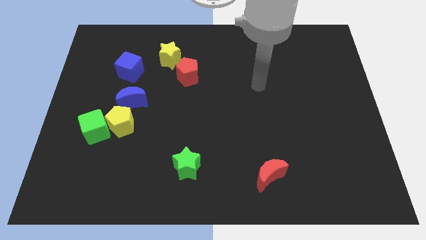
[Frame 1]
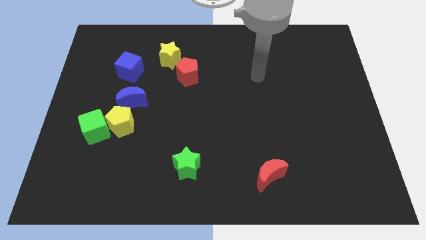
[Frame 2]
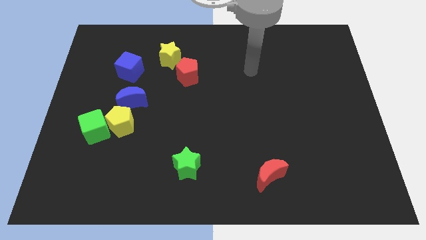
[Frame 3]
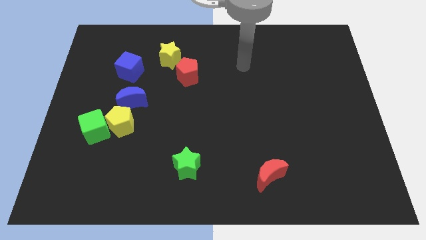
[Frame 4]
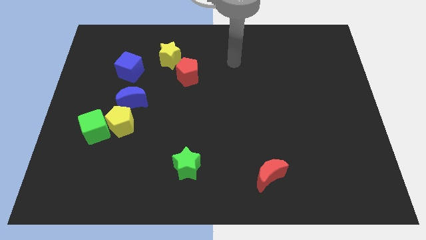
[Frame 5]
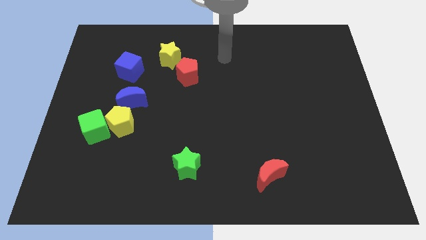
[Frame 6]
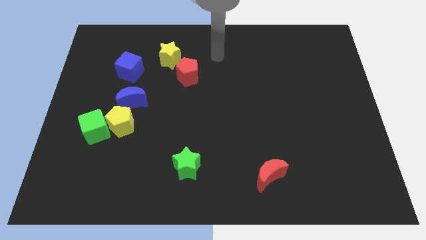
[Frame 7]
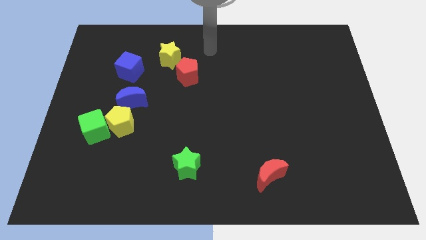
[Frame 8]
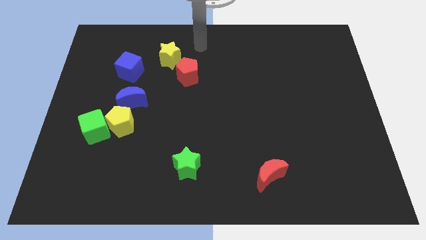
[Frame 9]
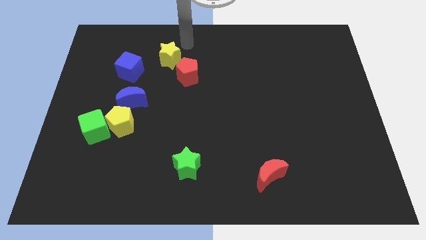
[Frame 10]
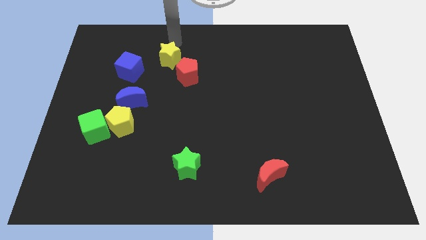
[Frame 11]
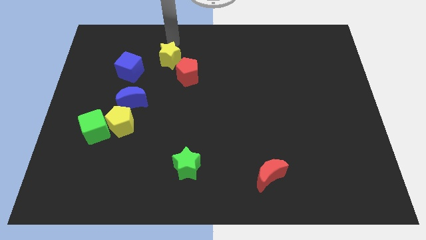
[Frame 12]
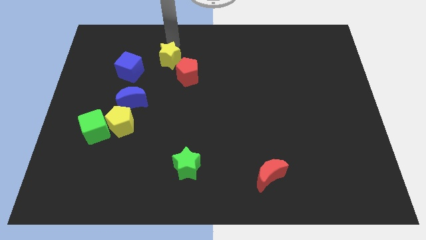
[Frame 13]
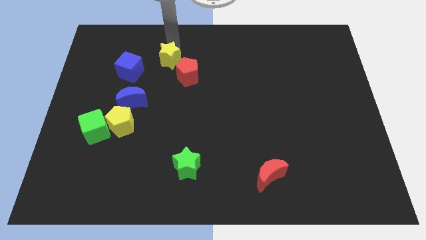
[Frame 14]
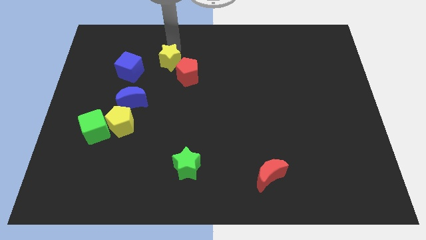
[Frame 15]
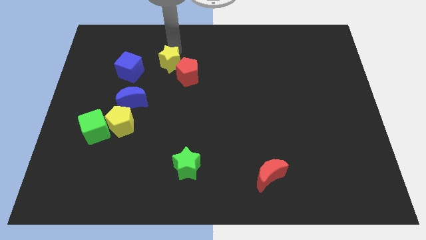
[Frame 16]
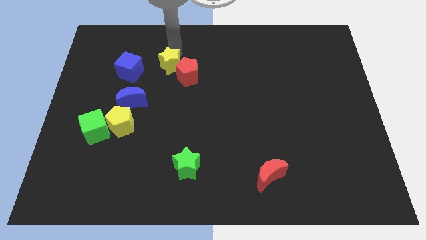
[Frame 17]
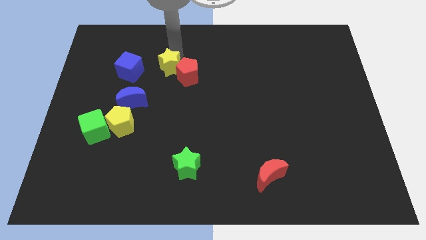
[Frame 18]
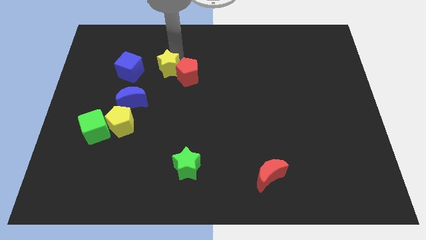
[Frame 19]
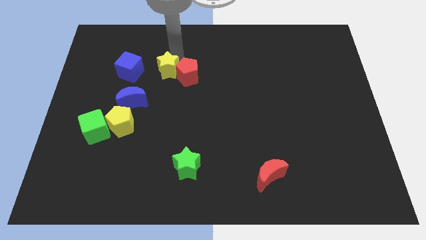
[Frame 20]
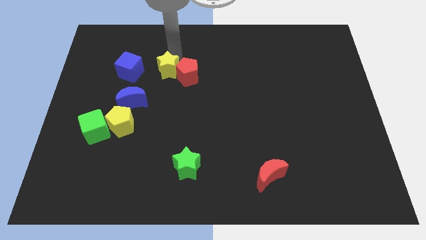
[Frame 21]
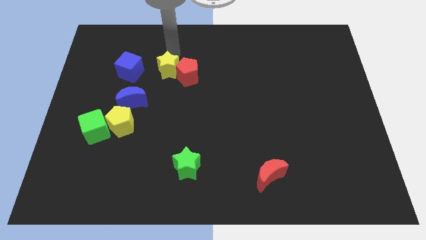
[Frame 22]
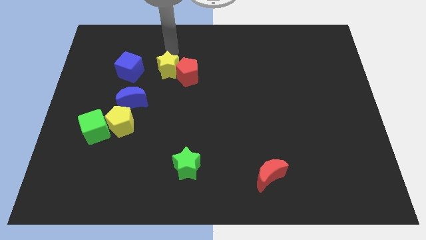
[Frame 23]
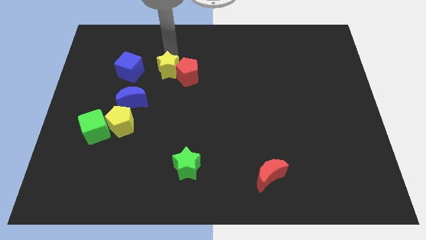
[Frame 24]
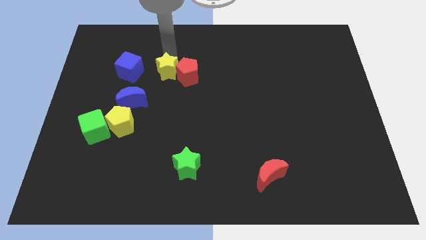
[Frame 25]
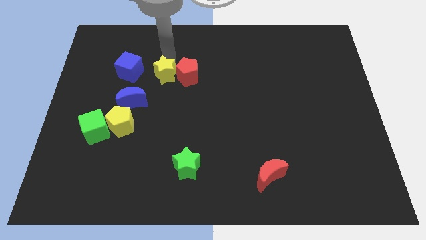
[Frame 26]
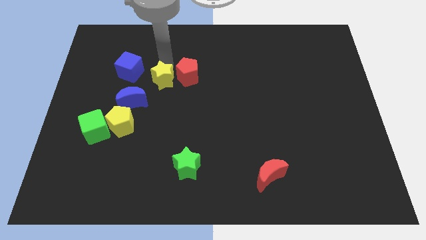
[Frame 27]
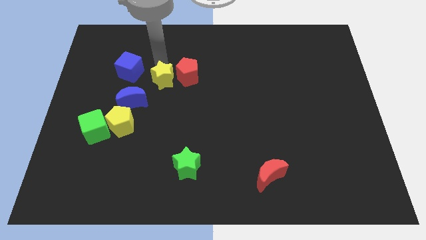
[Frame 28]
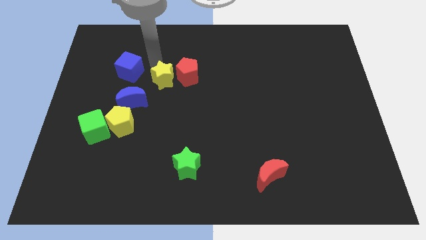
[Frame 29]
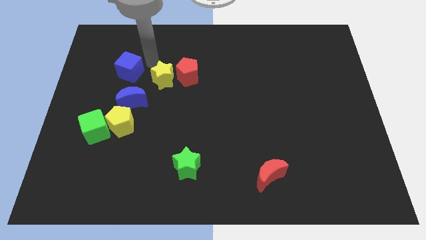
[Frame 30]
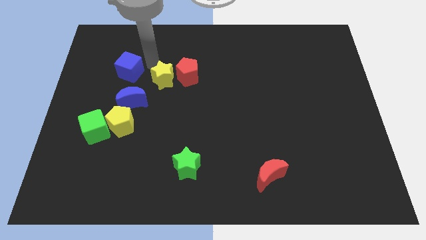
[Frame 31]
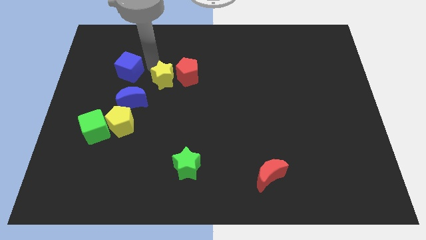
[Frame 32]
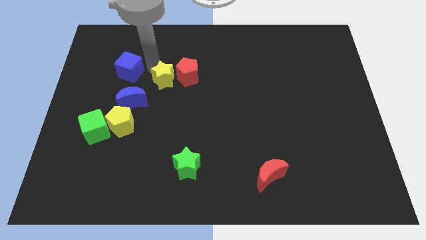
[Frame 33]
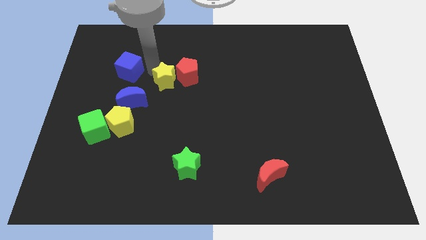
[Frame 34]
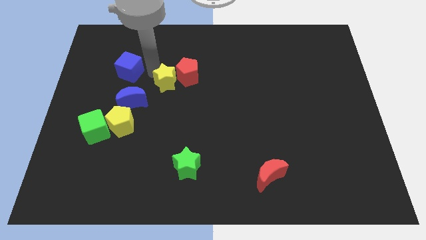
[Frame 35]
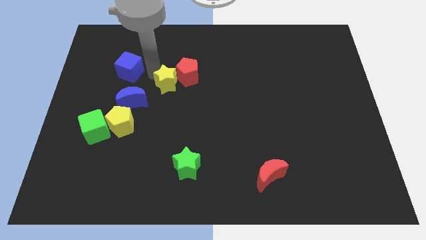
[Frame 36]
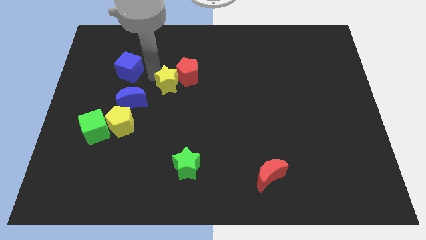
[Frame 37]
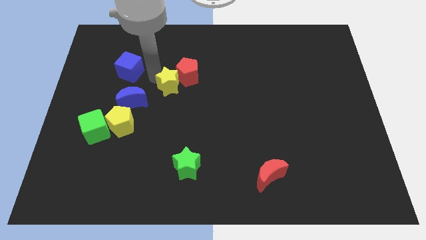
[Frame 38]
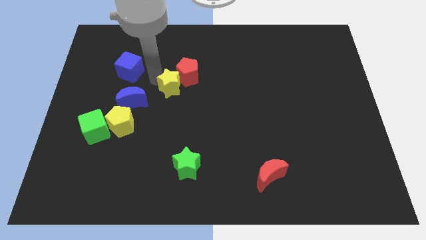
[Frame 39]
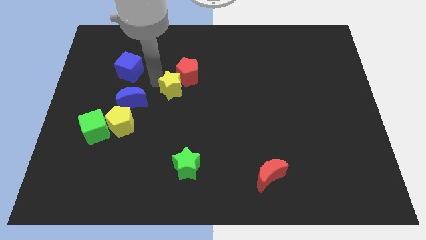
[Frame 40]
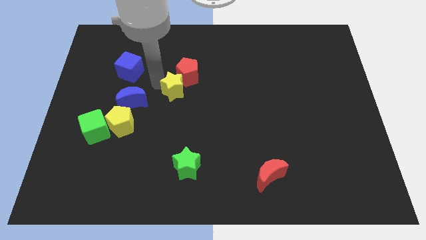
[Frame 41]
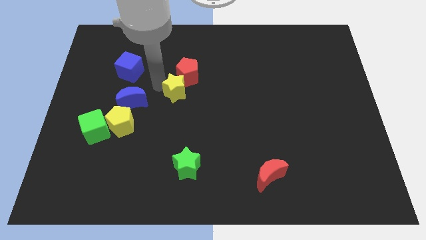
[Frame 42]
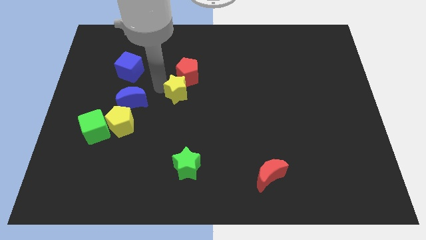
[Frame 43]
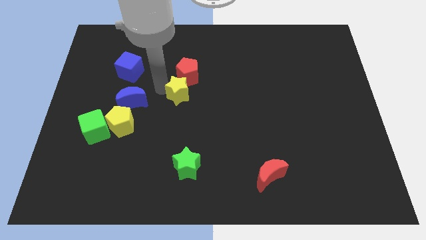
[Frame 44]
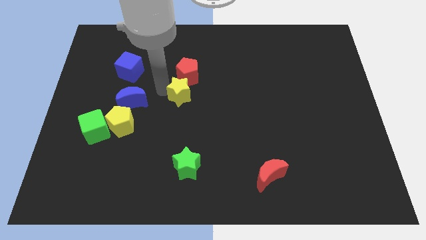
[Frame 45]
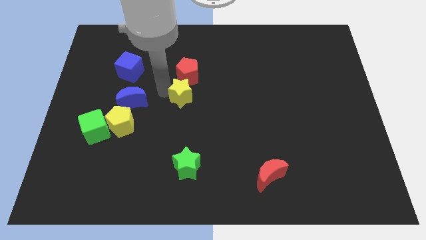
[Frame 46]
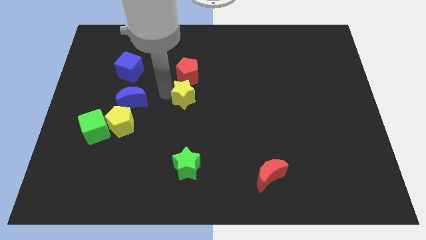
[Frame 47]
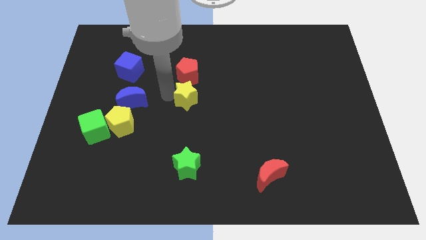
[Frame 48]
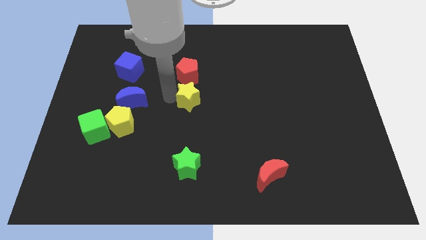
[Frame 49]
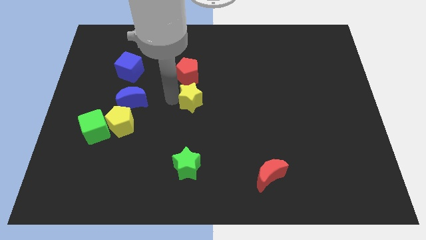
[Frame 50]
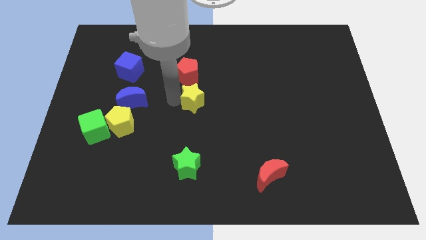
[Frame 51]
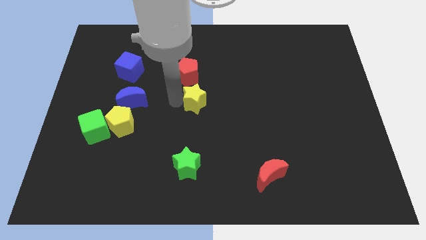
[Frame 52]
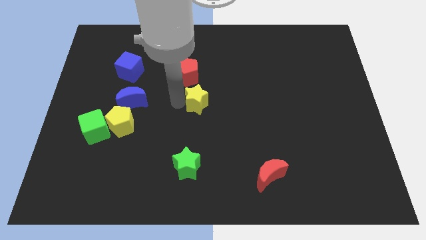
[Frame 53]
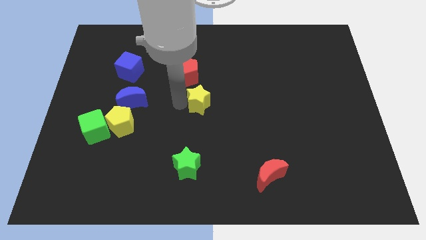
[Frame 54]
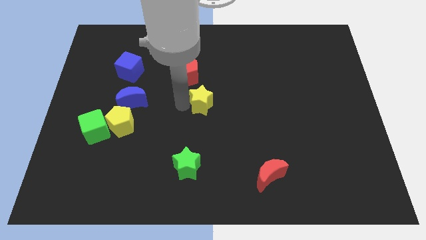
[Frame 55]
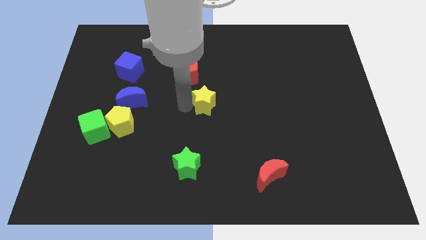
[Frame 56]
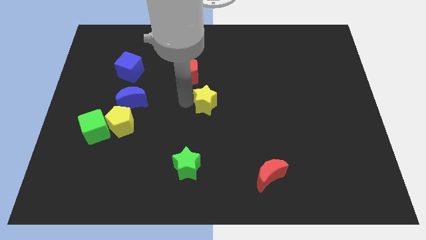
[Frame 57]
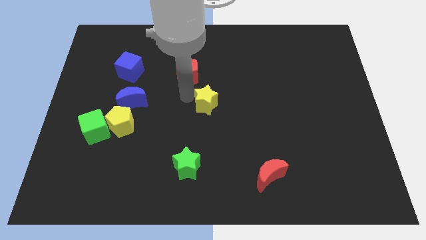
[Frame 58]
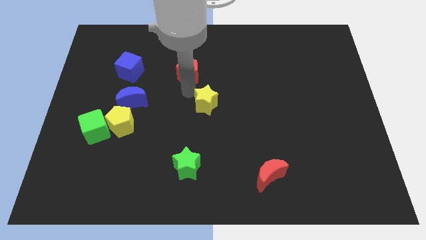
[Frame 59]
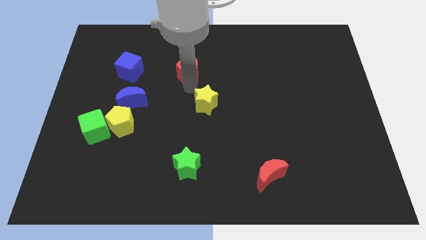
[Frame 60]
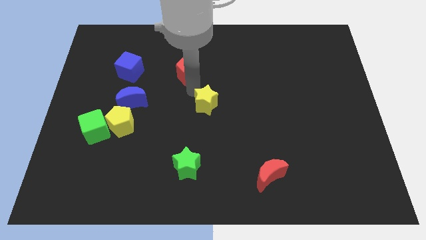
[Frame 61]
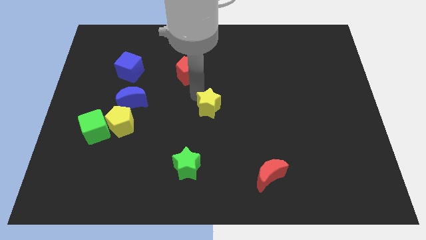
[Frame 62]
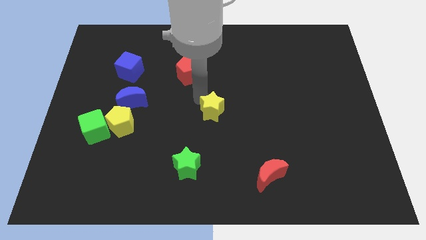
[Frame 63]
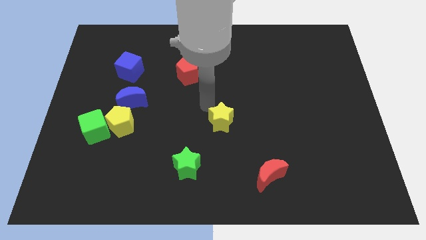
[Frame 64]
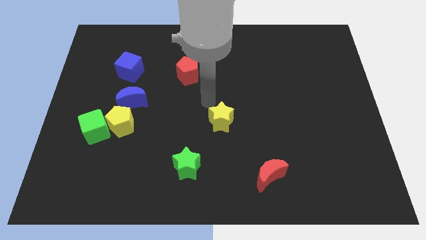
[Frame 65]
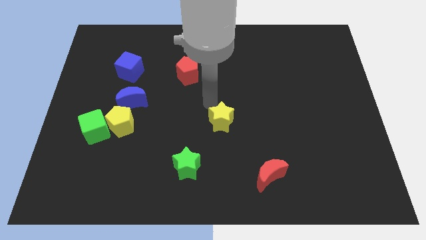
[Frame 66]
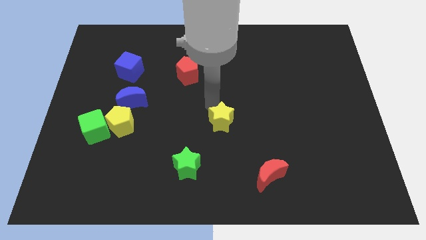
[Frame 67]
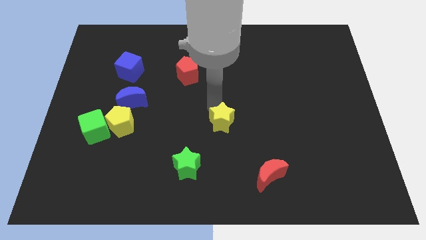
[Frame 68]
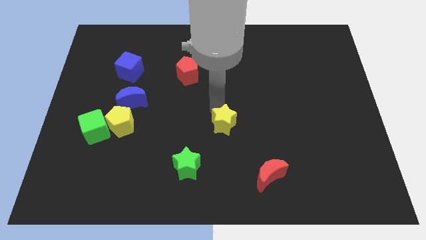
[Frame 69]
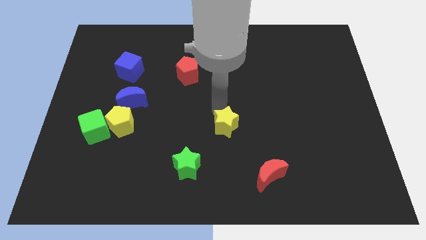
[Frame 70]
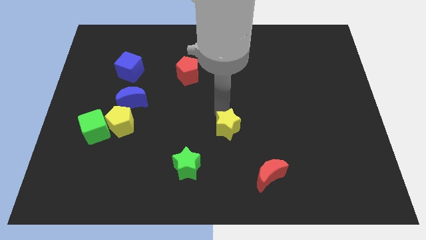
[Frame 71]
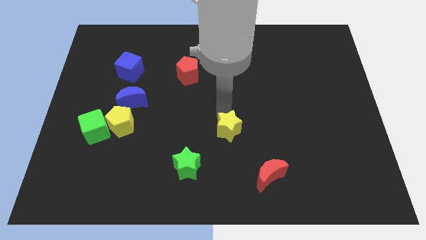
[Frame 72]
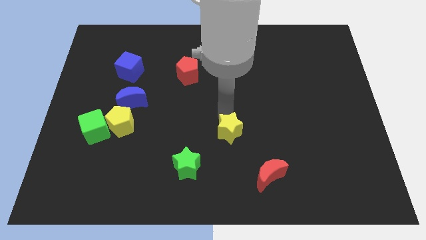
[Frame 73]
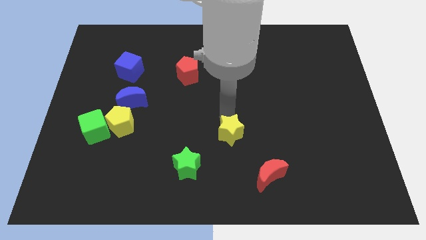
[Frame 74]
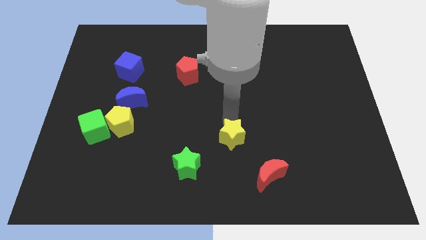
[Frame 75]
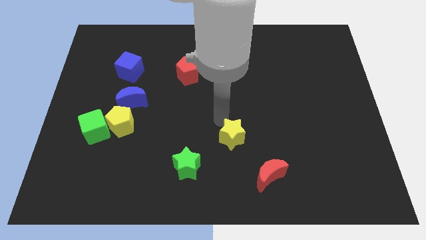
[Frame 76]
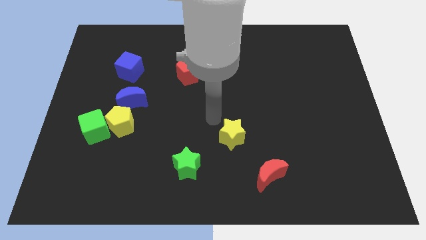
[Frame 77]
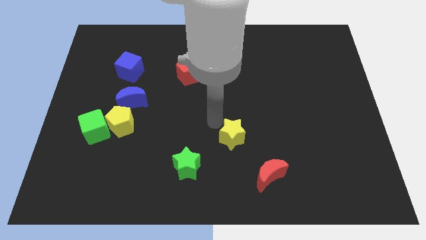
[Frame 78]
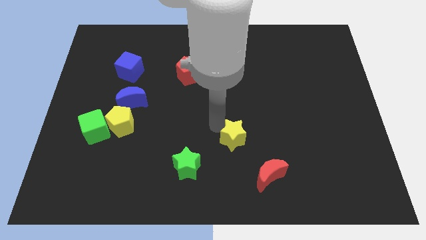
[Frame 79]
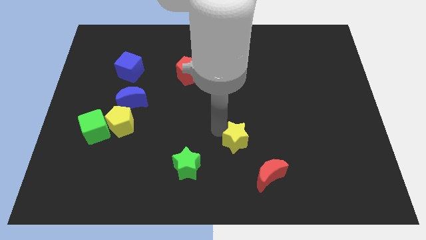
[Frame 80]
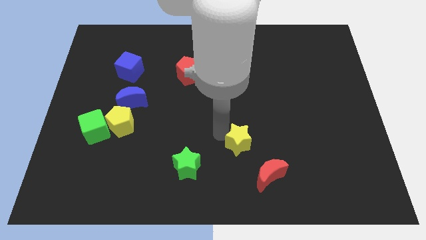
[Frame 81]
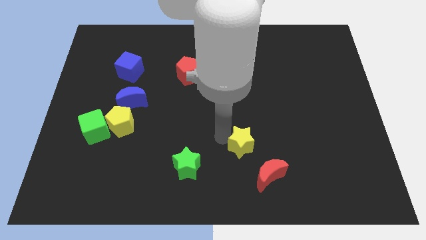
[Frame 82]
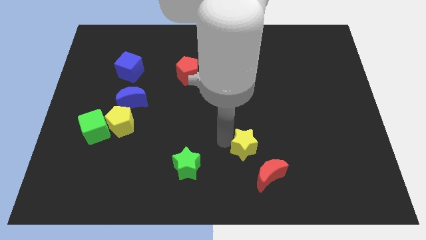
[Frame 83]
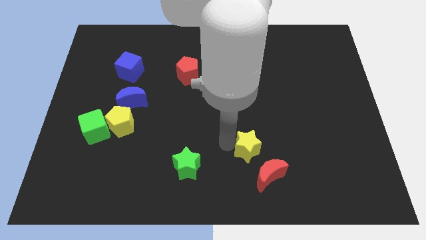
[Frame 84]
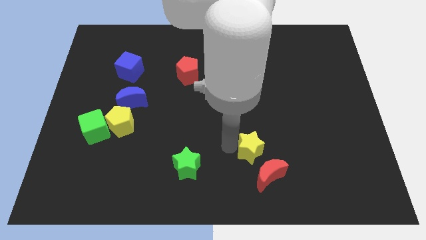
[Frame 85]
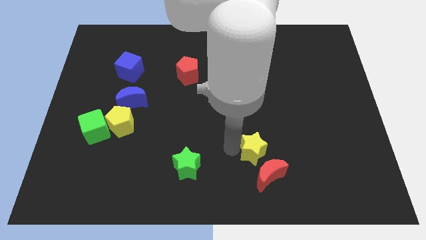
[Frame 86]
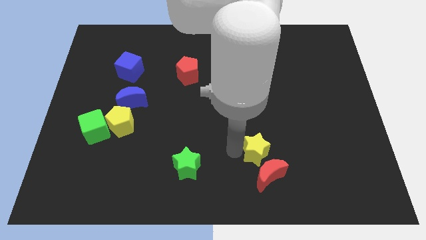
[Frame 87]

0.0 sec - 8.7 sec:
push the yellow star to the red moon
